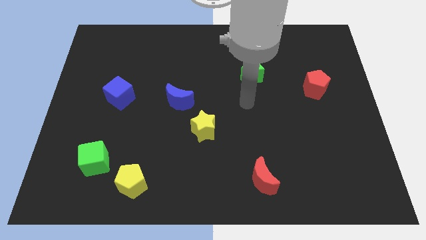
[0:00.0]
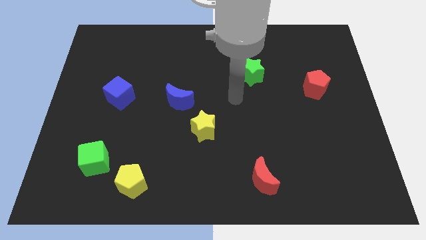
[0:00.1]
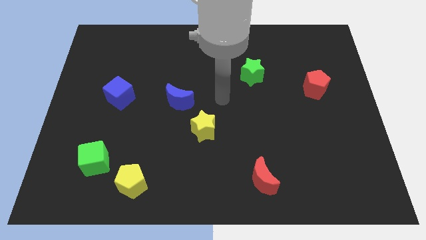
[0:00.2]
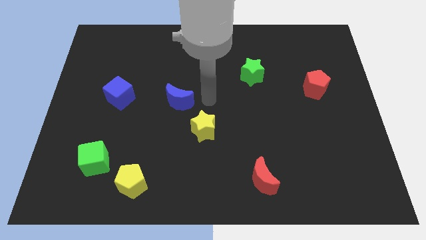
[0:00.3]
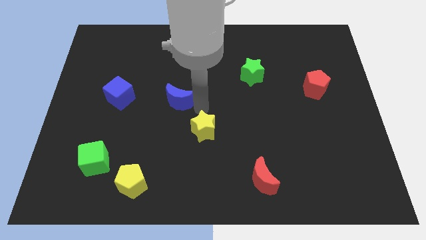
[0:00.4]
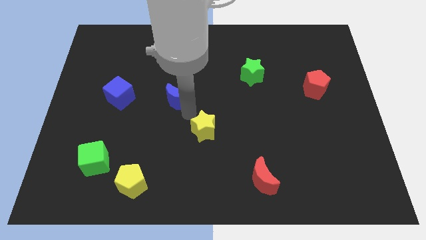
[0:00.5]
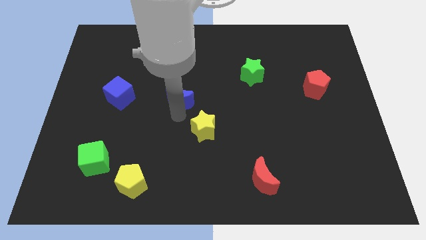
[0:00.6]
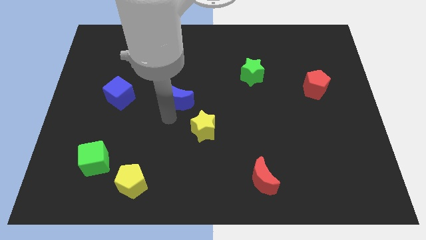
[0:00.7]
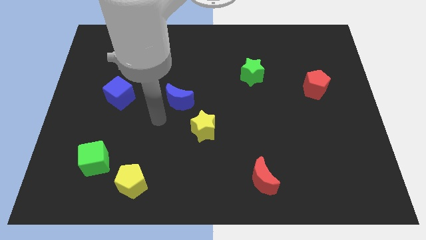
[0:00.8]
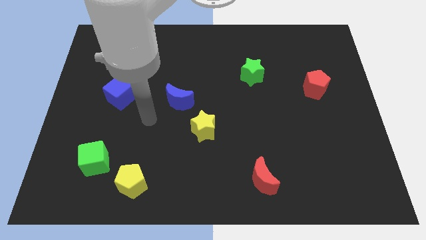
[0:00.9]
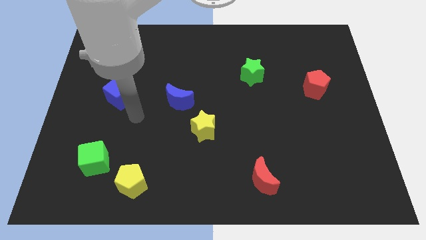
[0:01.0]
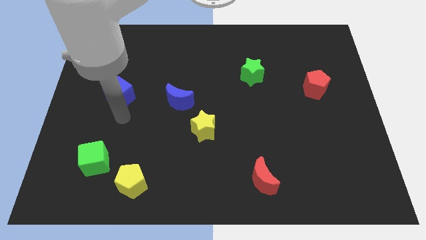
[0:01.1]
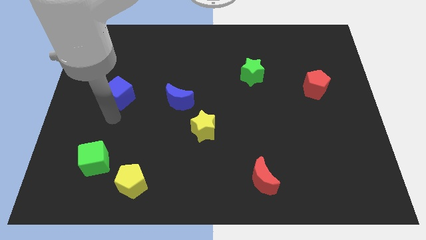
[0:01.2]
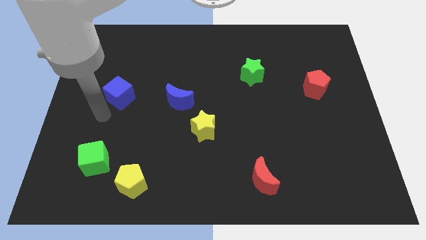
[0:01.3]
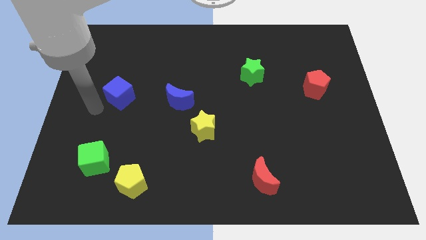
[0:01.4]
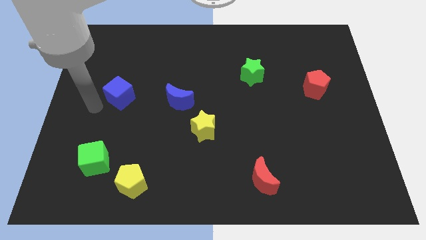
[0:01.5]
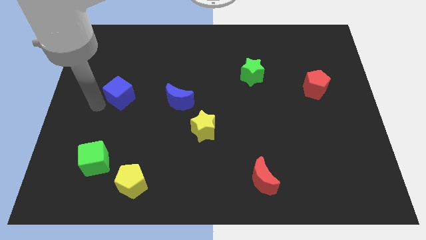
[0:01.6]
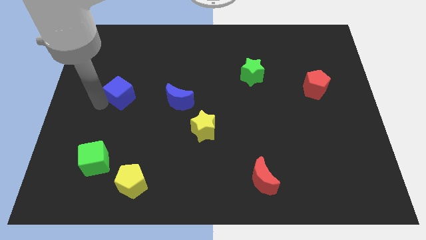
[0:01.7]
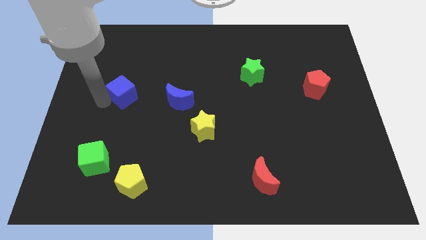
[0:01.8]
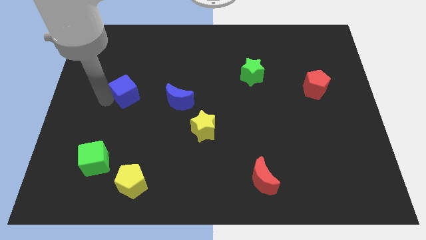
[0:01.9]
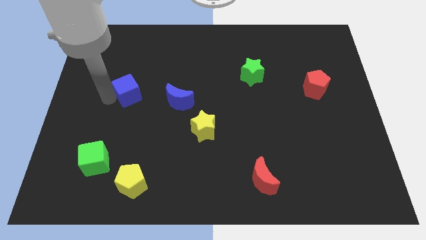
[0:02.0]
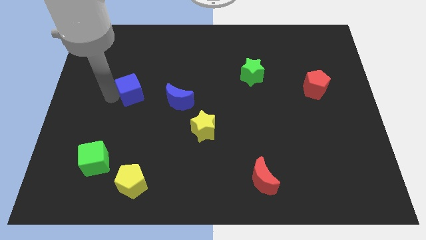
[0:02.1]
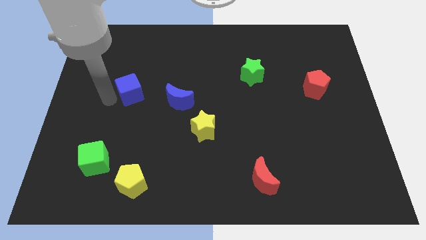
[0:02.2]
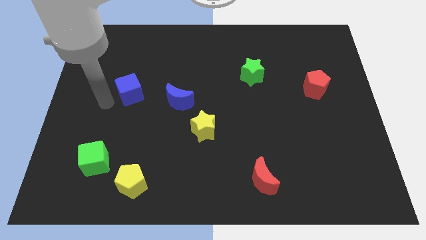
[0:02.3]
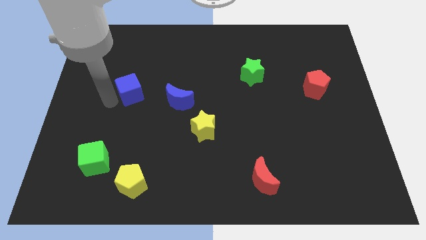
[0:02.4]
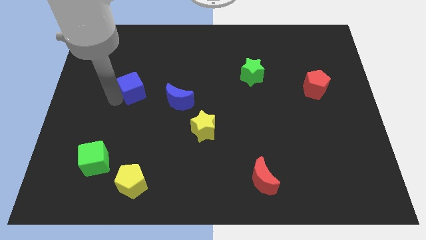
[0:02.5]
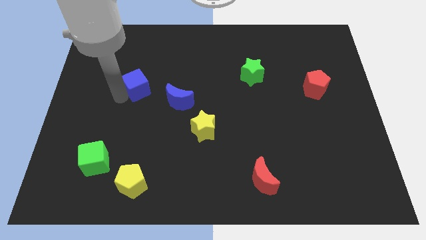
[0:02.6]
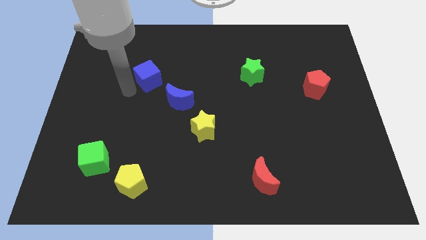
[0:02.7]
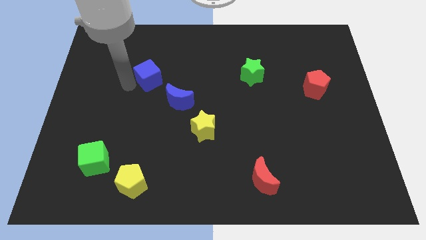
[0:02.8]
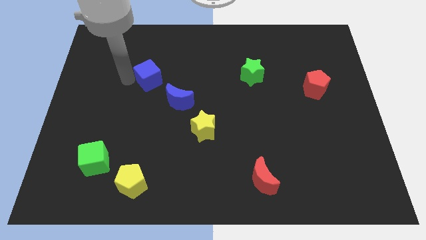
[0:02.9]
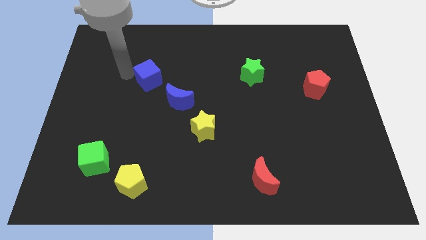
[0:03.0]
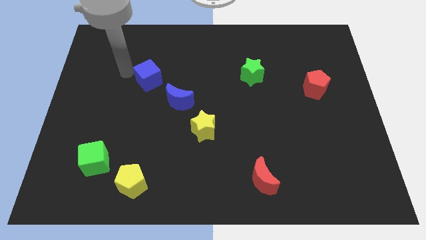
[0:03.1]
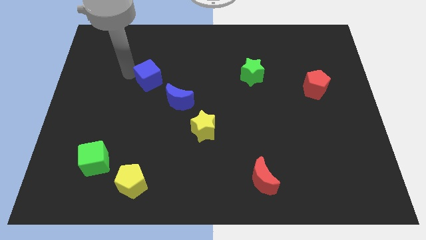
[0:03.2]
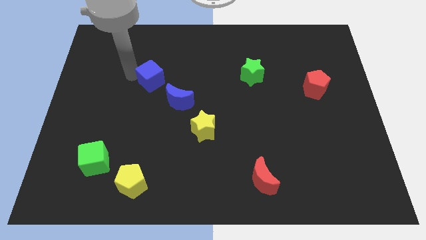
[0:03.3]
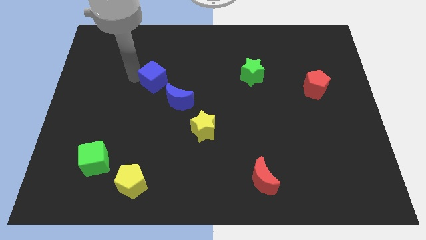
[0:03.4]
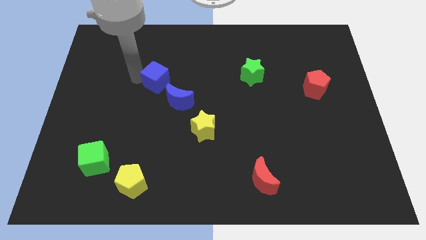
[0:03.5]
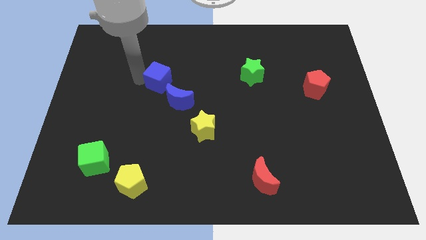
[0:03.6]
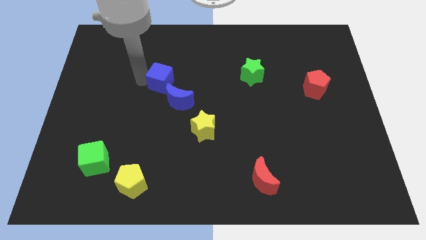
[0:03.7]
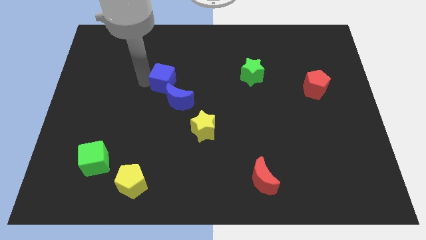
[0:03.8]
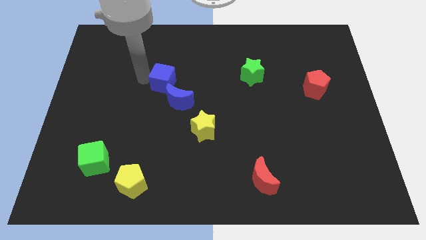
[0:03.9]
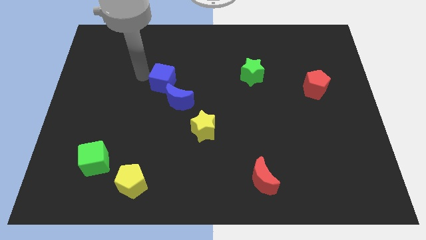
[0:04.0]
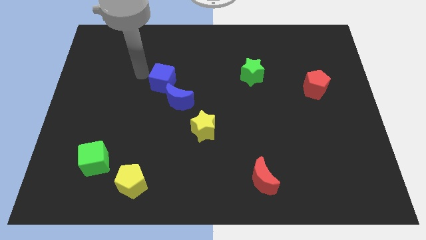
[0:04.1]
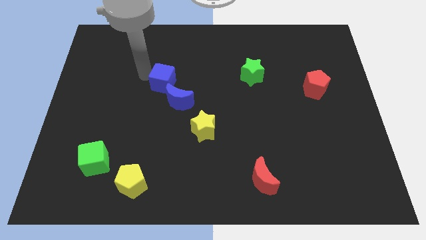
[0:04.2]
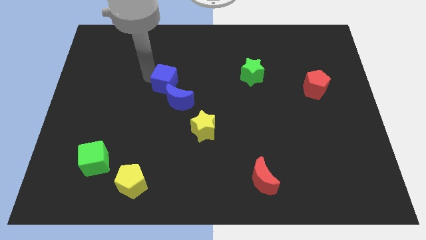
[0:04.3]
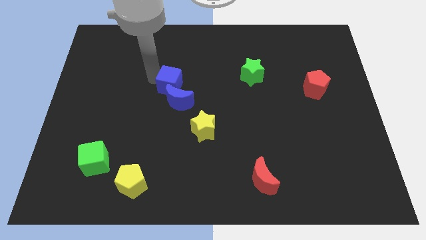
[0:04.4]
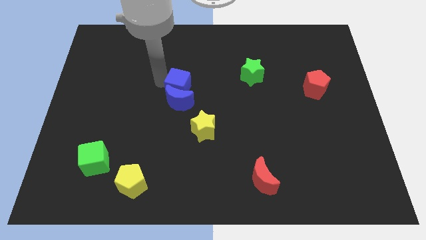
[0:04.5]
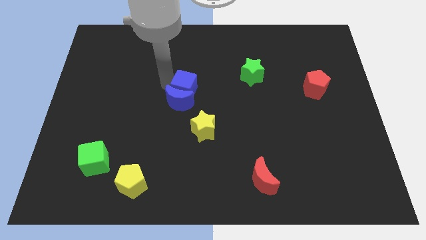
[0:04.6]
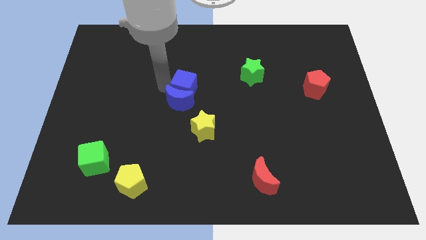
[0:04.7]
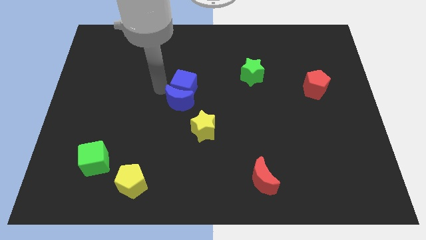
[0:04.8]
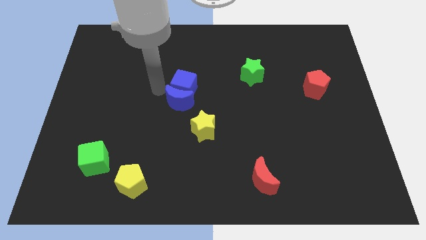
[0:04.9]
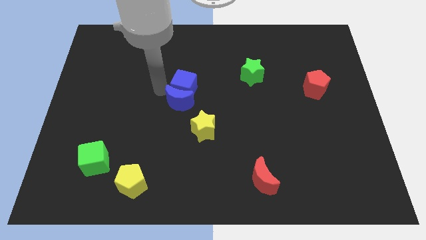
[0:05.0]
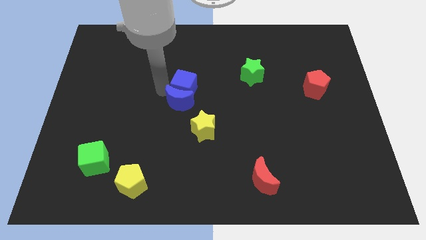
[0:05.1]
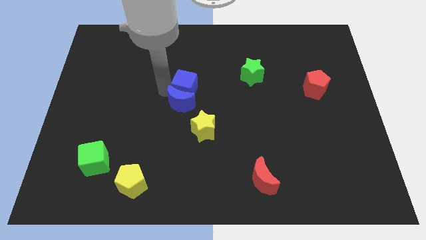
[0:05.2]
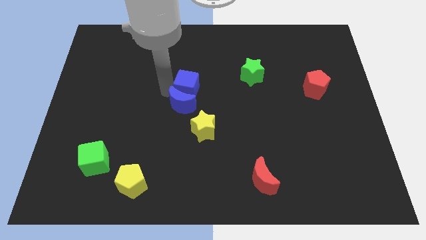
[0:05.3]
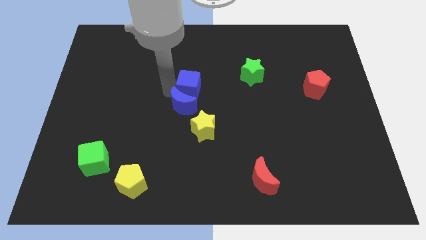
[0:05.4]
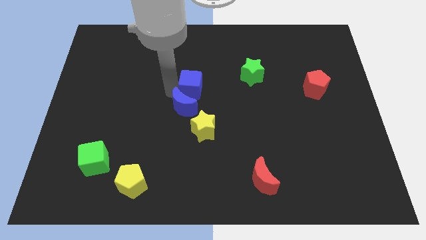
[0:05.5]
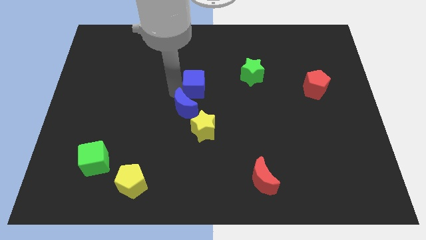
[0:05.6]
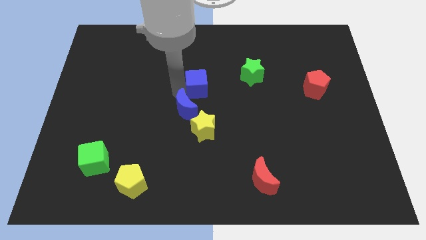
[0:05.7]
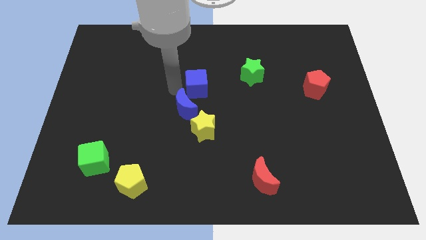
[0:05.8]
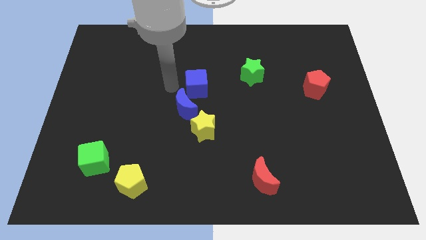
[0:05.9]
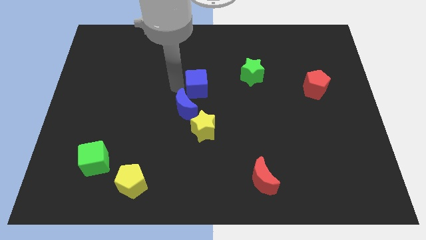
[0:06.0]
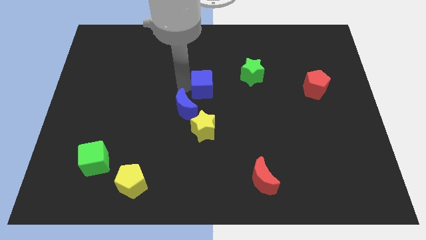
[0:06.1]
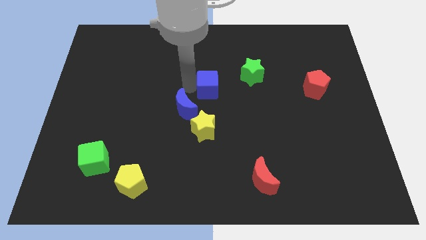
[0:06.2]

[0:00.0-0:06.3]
push the blue cube right

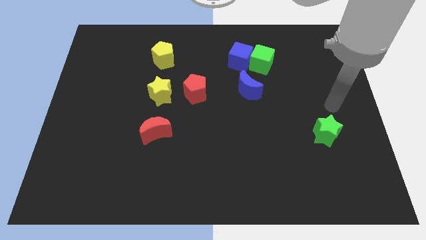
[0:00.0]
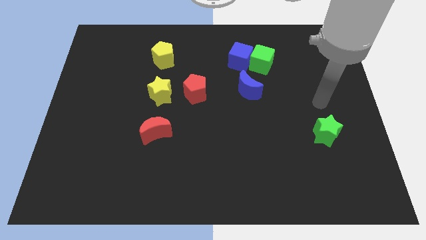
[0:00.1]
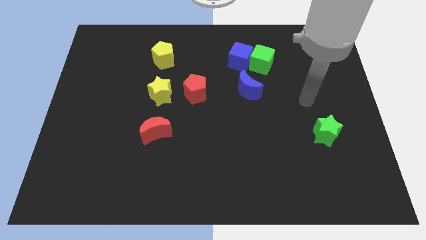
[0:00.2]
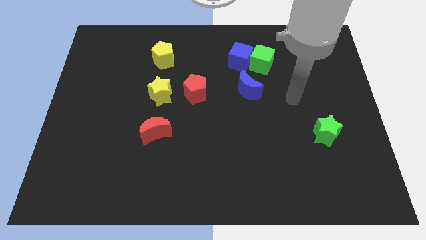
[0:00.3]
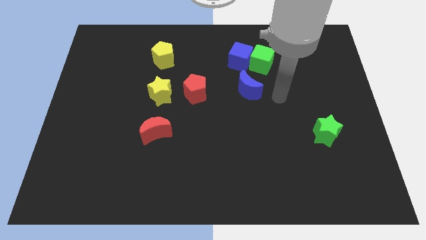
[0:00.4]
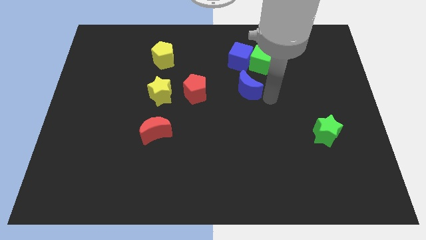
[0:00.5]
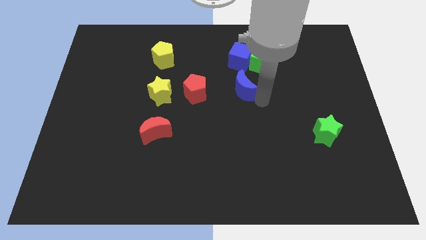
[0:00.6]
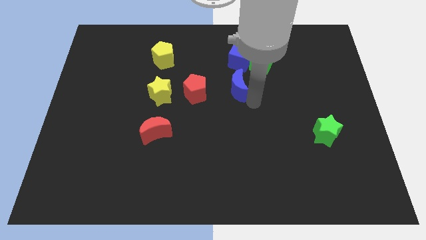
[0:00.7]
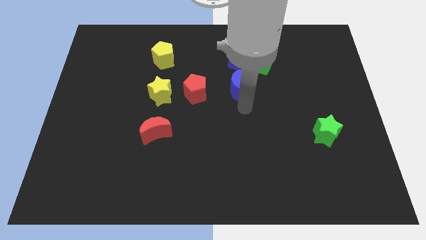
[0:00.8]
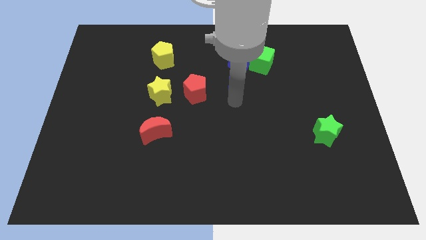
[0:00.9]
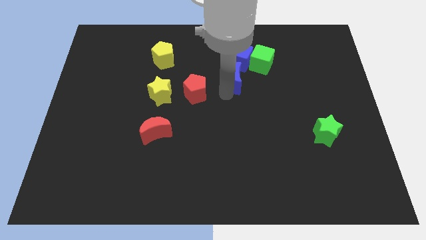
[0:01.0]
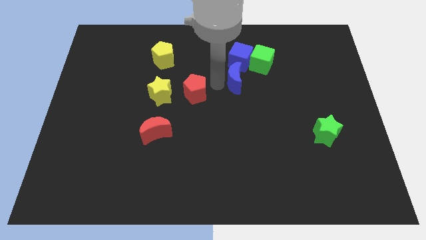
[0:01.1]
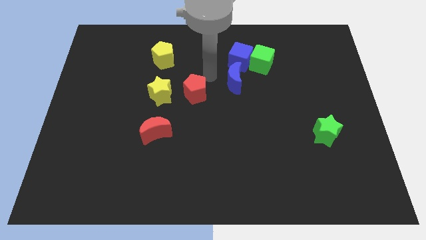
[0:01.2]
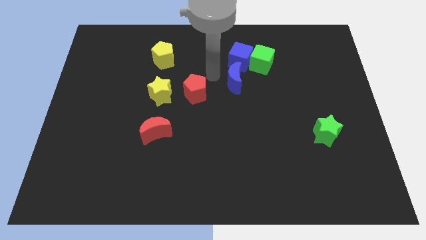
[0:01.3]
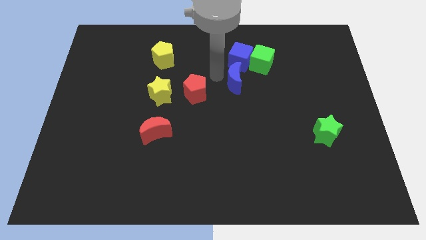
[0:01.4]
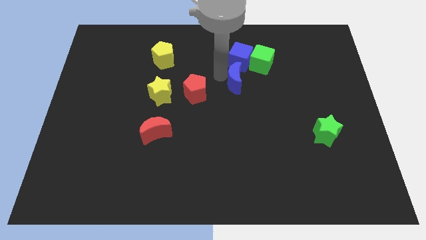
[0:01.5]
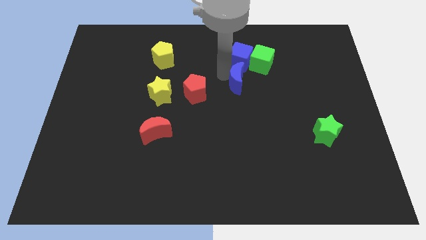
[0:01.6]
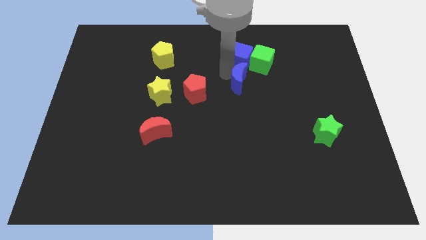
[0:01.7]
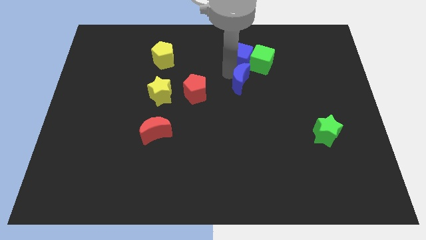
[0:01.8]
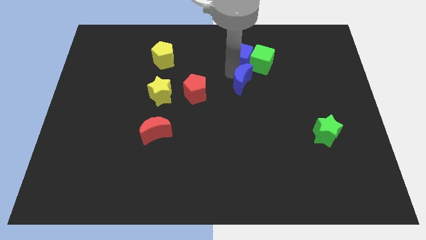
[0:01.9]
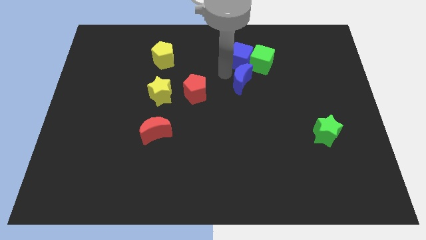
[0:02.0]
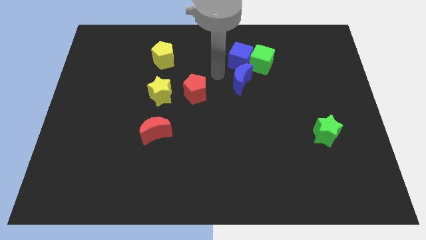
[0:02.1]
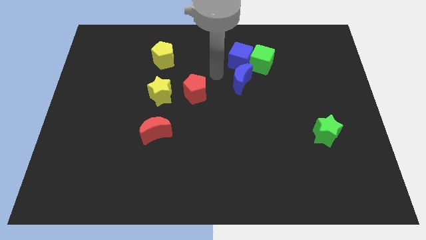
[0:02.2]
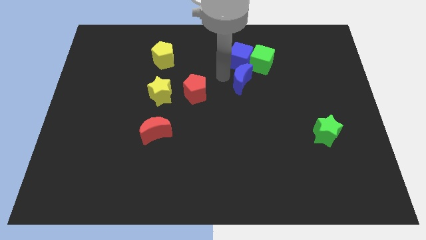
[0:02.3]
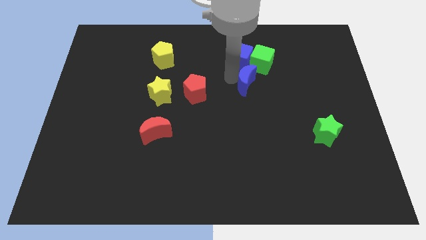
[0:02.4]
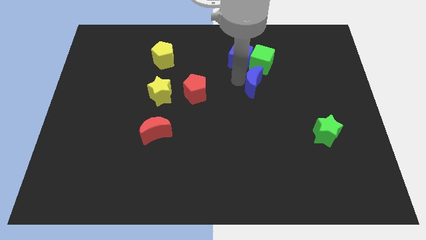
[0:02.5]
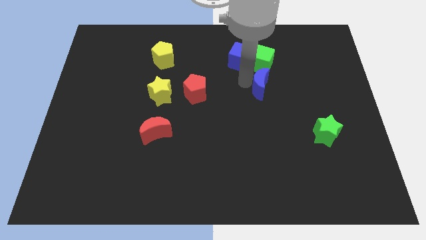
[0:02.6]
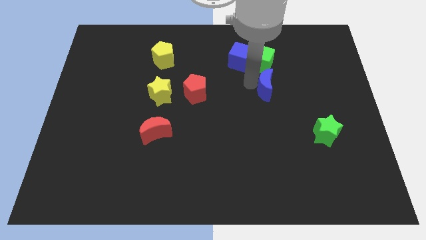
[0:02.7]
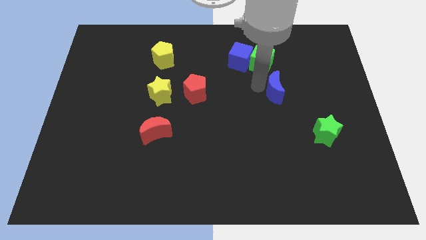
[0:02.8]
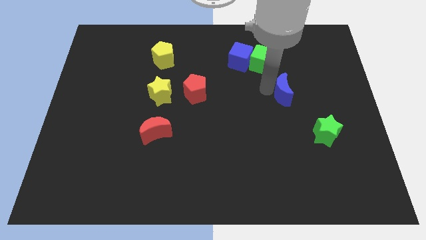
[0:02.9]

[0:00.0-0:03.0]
slightly slide the blue moon right
